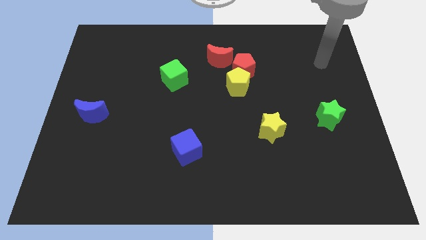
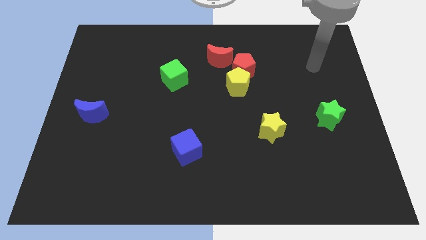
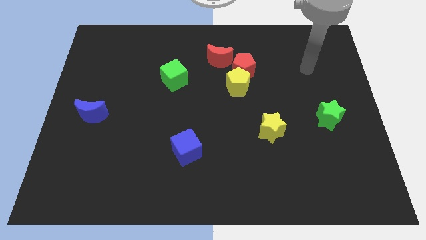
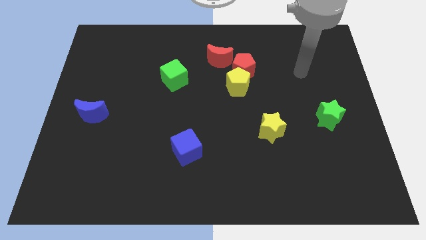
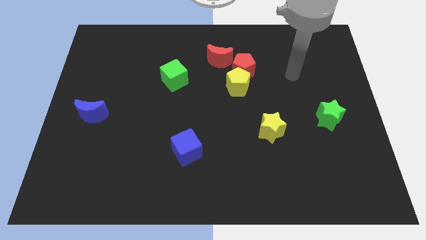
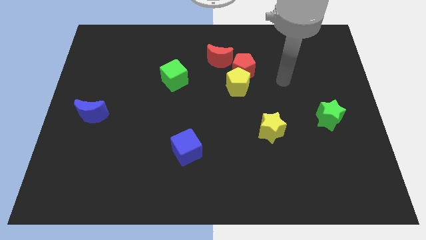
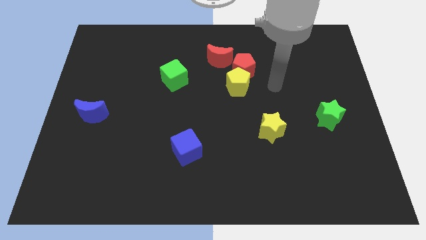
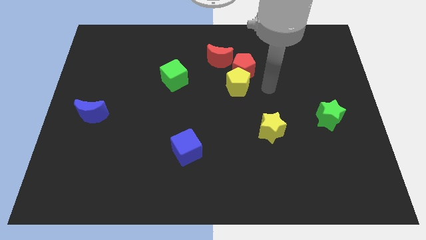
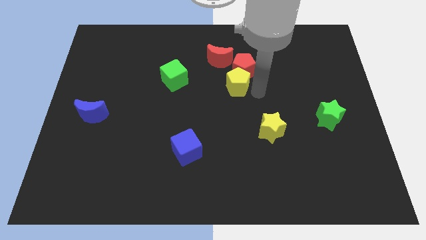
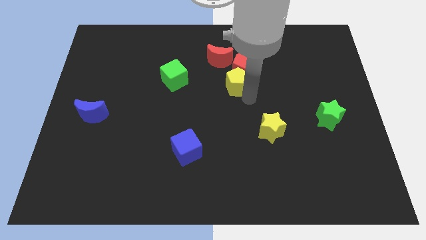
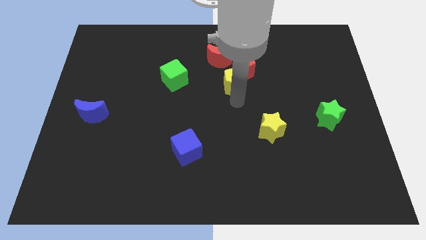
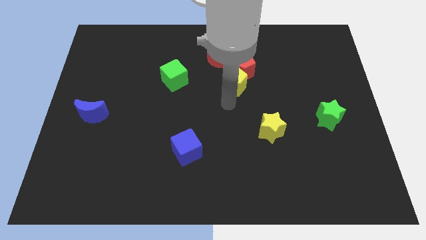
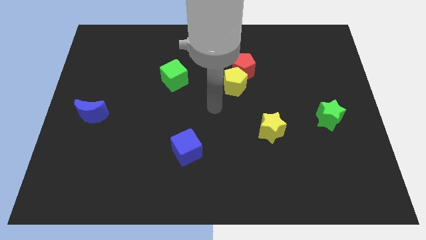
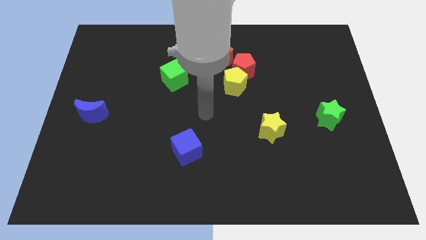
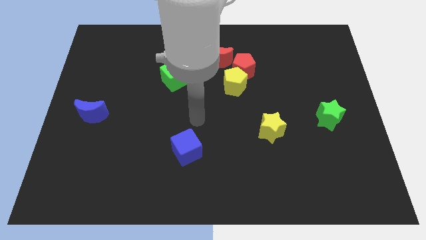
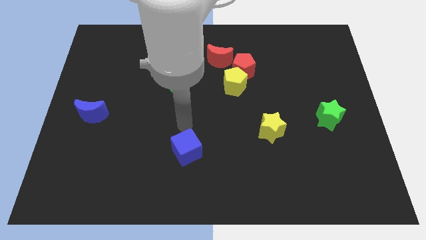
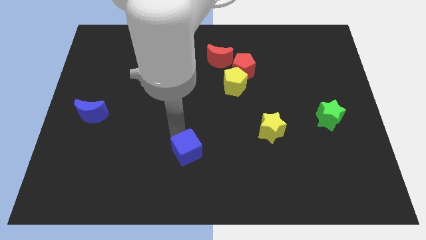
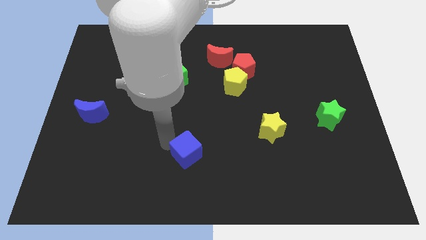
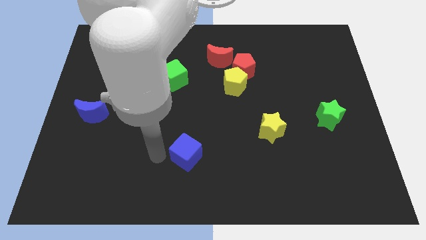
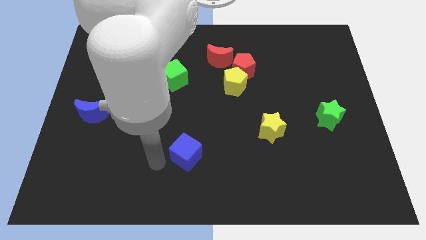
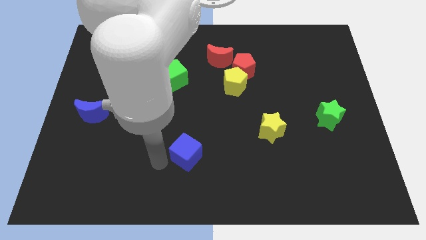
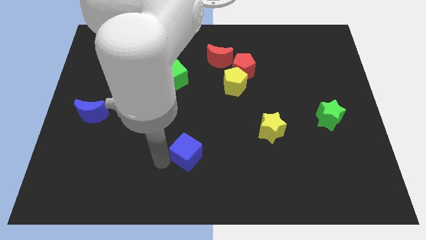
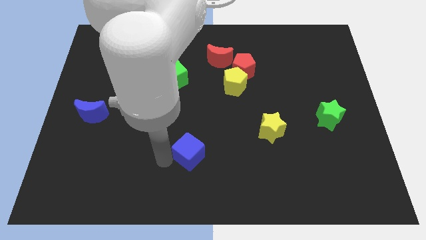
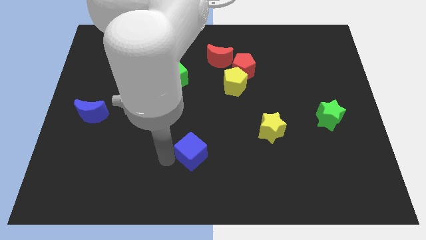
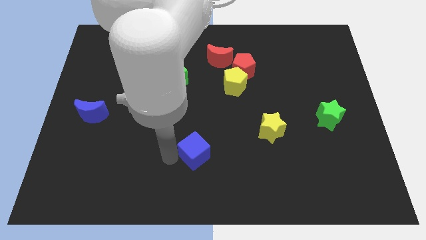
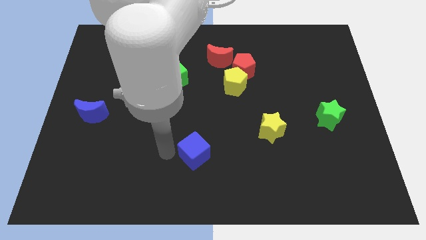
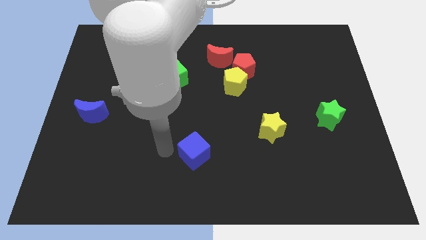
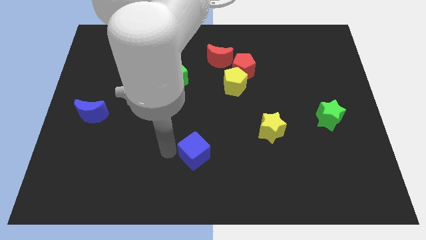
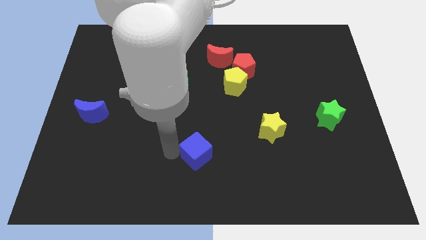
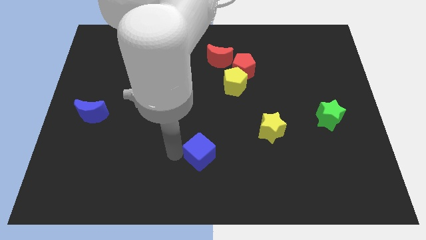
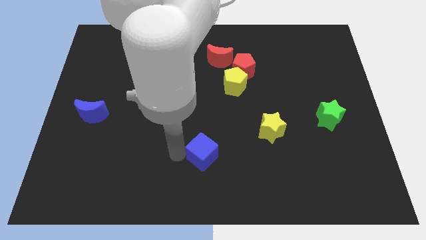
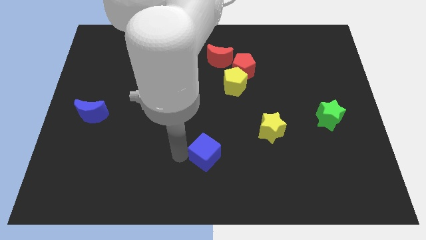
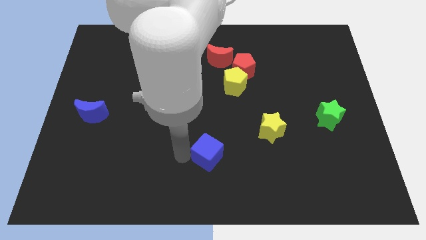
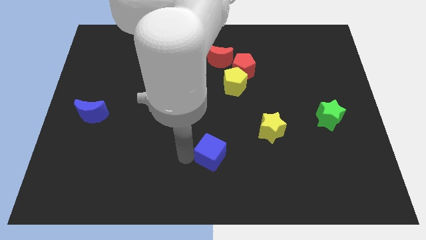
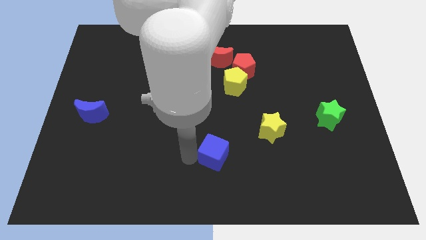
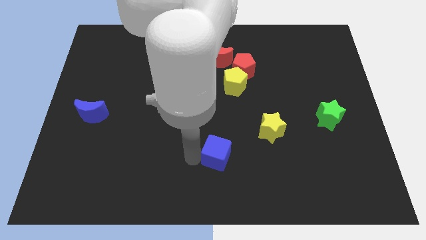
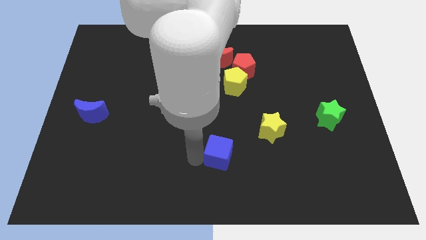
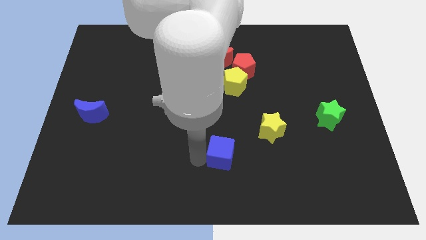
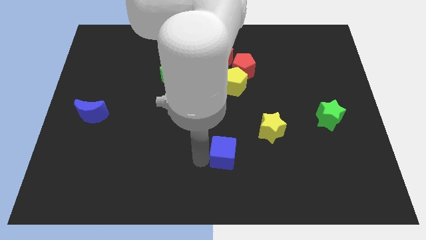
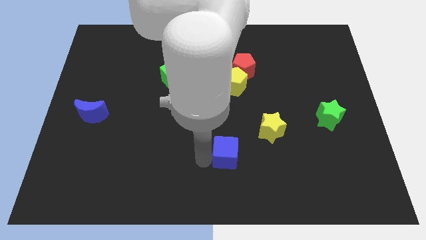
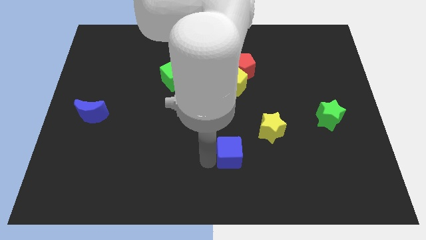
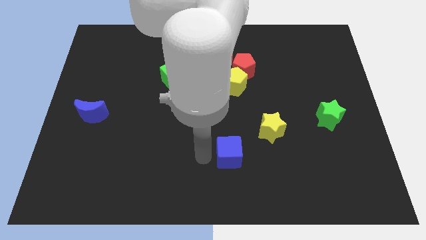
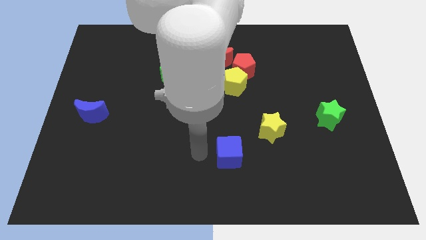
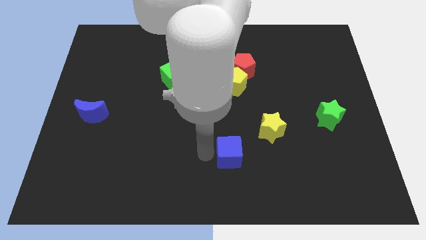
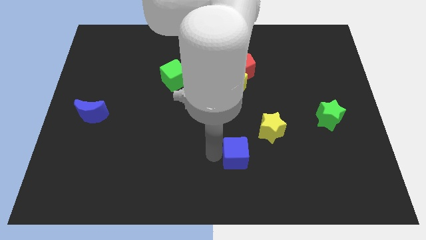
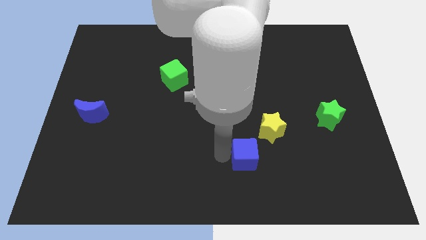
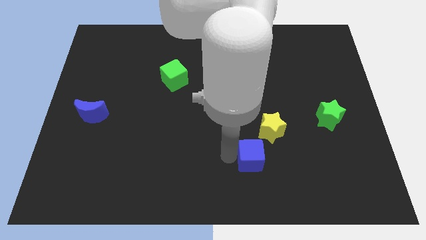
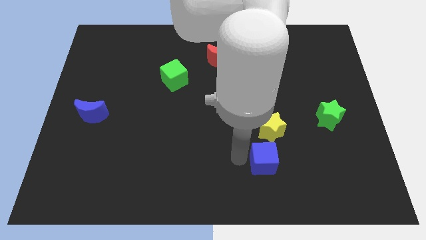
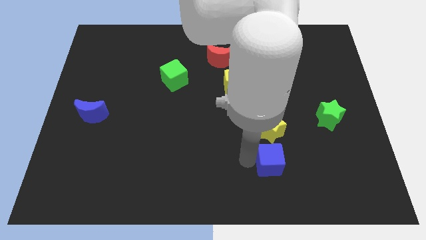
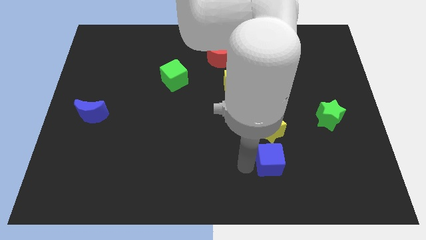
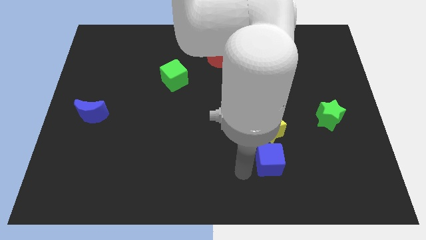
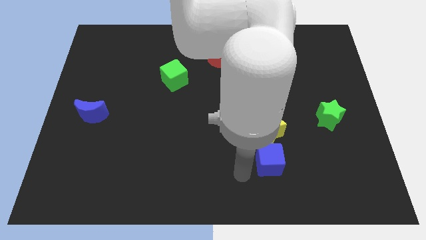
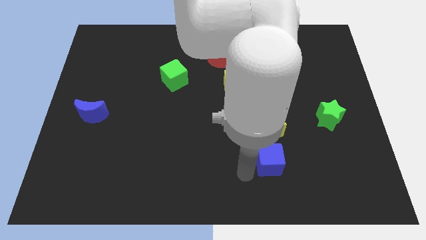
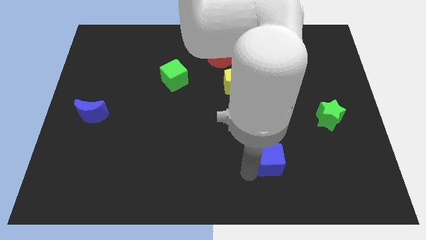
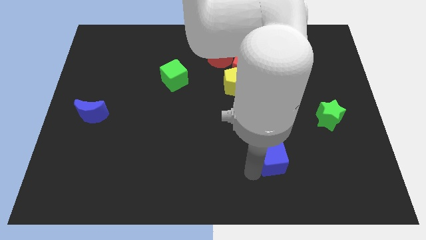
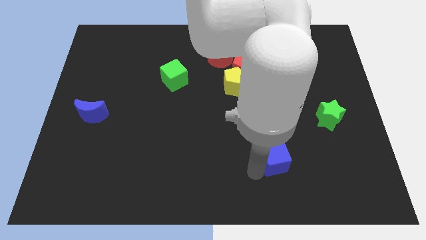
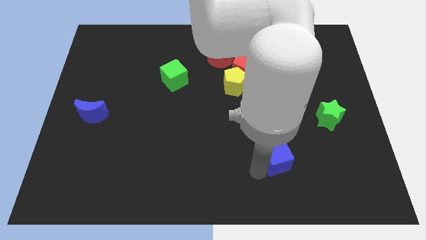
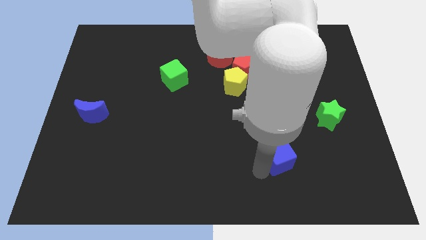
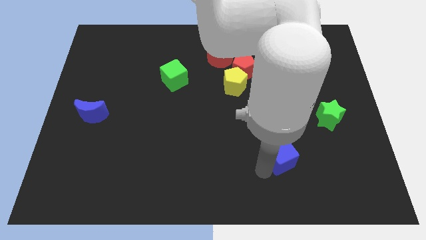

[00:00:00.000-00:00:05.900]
slide the blue cube to the right

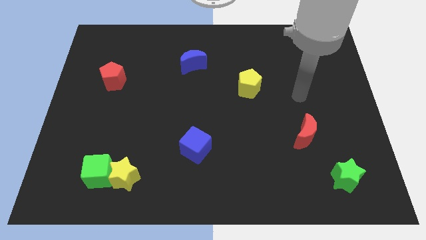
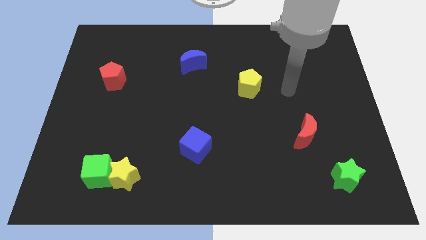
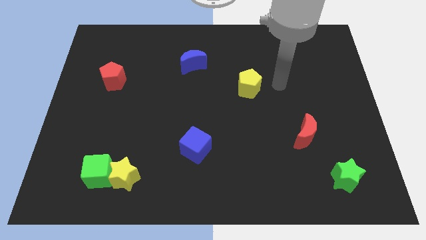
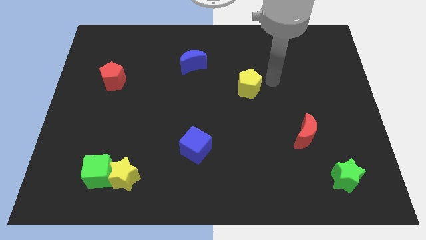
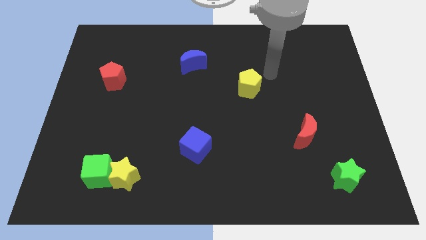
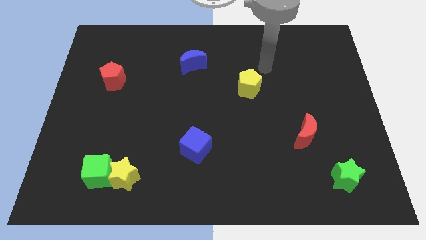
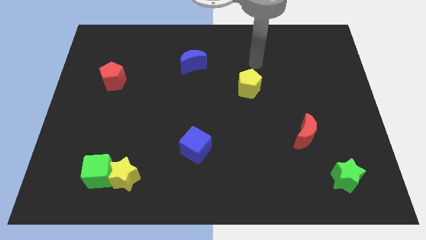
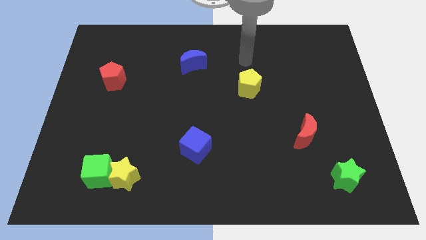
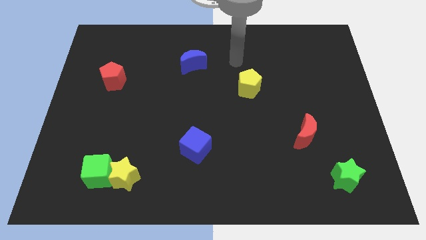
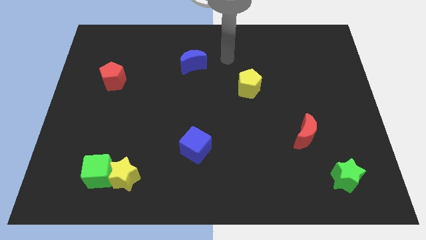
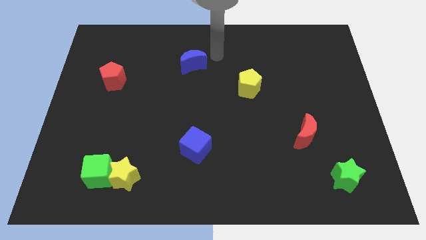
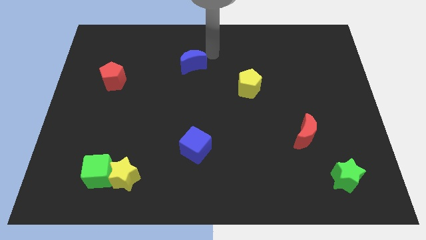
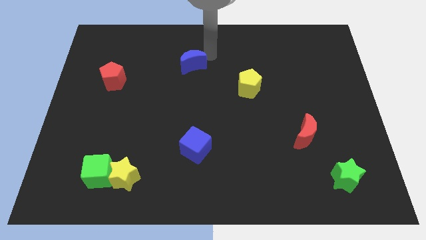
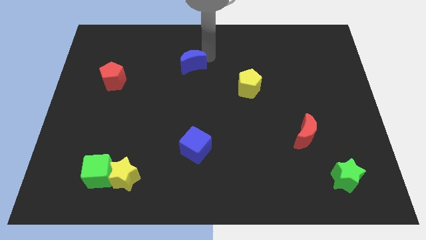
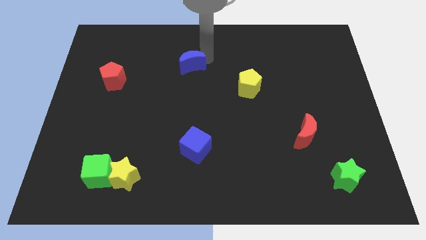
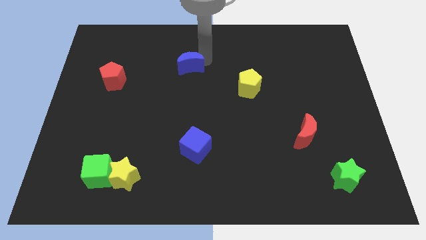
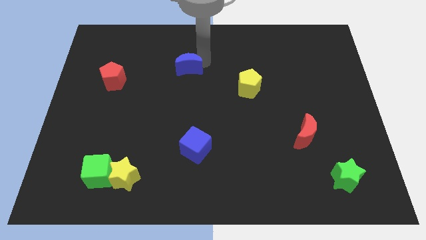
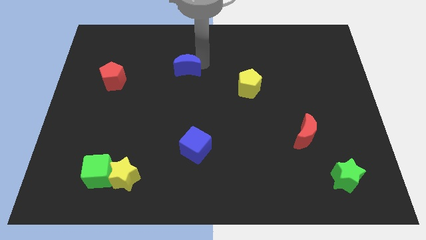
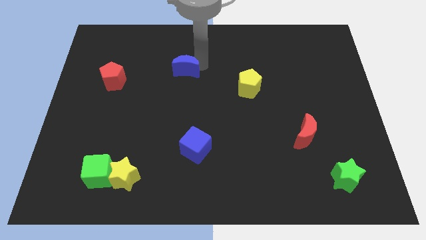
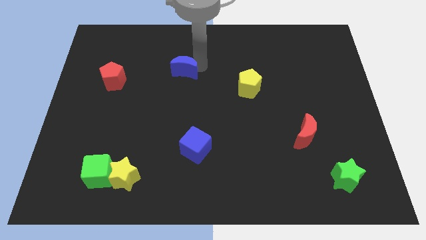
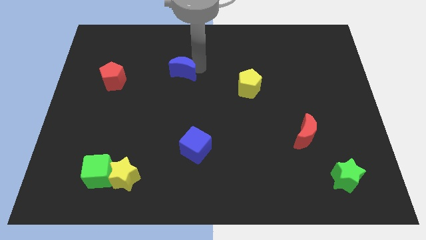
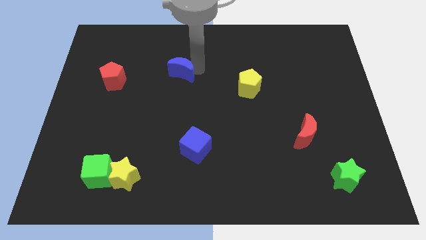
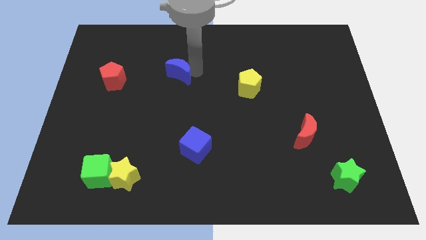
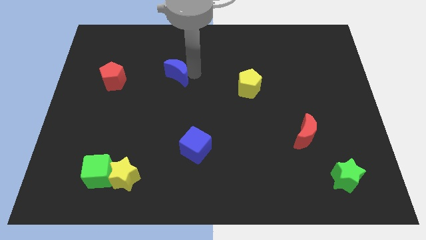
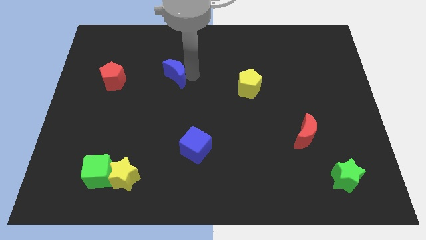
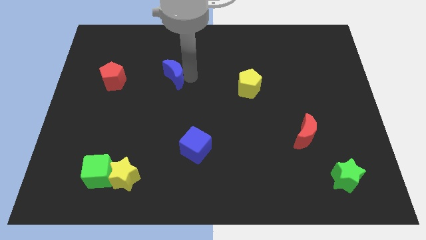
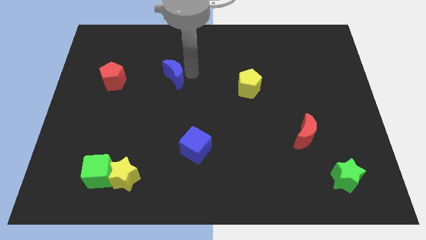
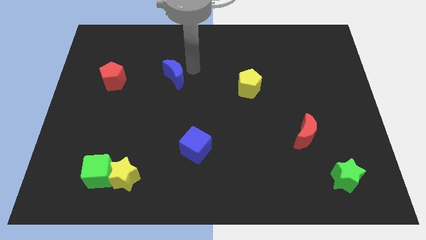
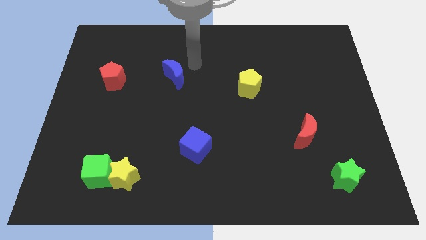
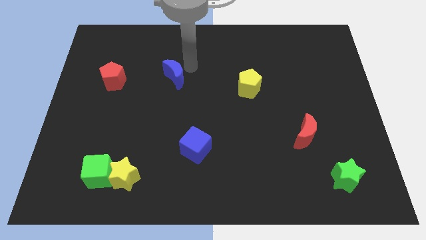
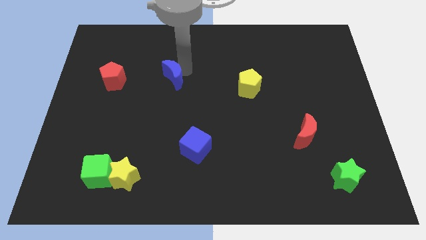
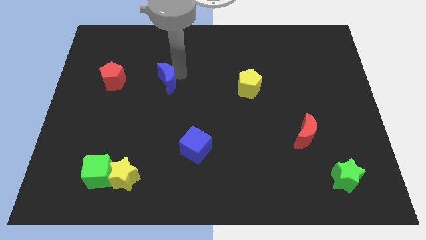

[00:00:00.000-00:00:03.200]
slide the blue moon a bit down and then left
